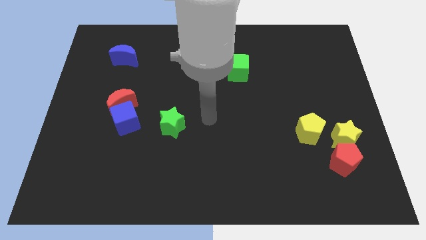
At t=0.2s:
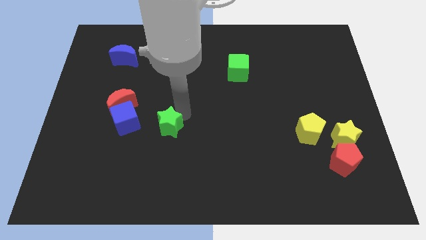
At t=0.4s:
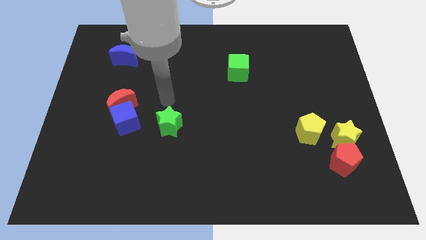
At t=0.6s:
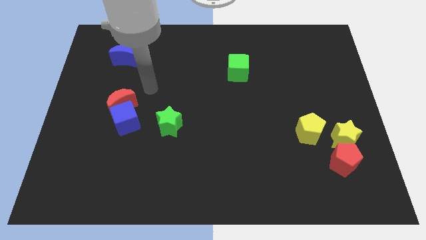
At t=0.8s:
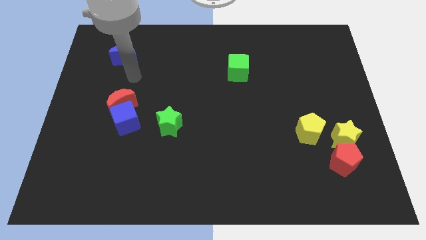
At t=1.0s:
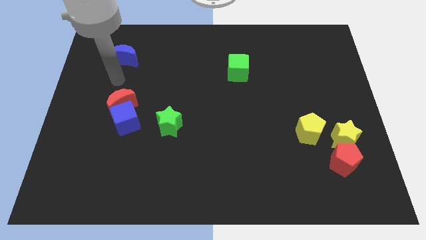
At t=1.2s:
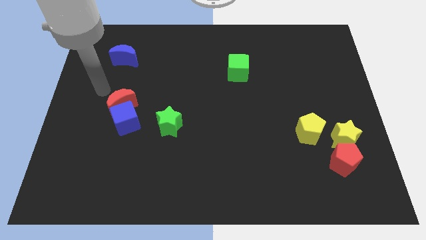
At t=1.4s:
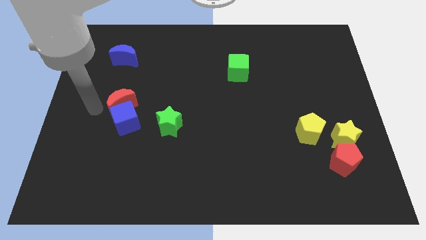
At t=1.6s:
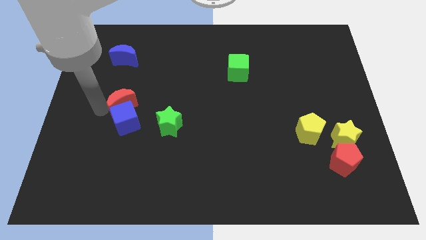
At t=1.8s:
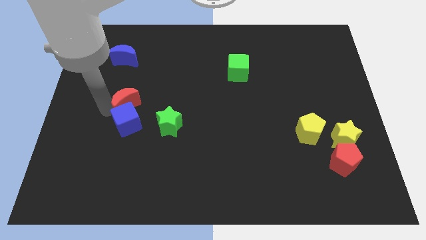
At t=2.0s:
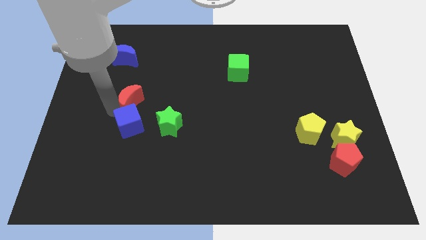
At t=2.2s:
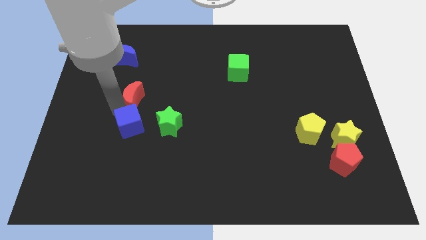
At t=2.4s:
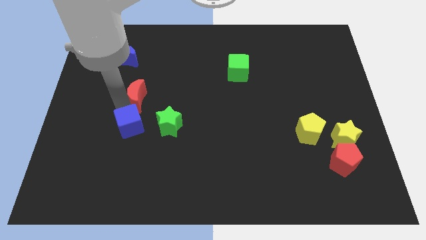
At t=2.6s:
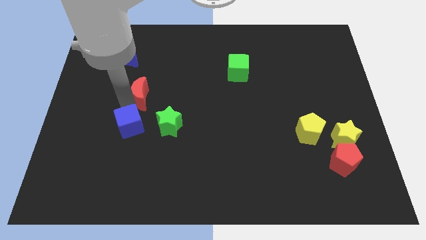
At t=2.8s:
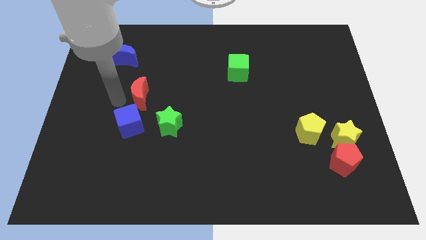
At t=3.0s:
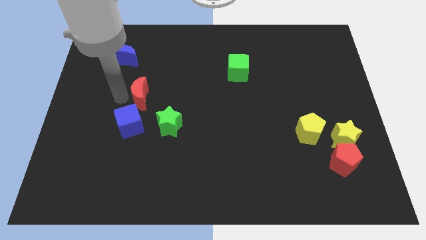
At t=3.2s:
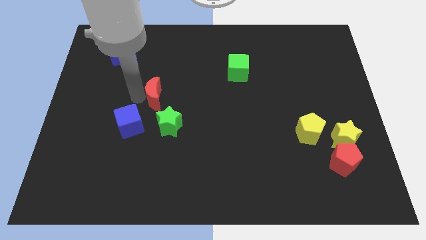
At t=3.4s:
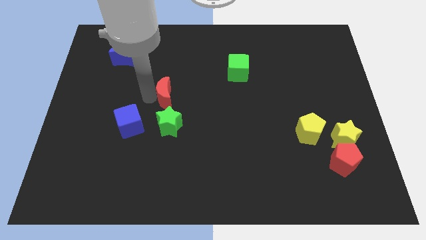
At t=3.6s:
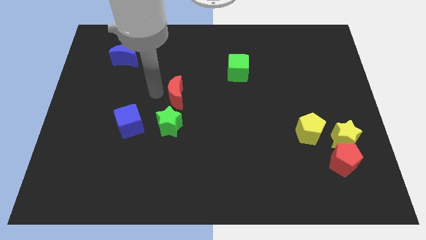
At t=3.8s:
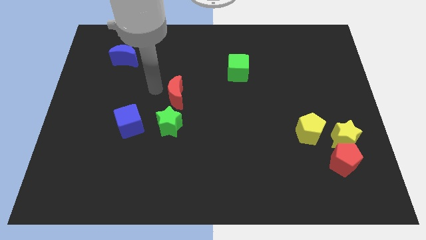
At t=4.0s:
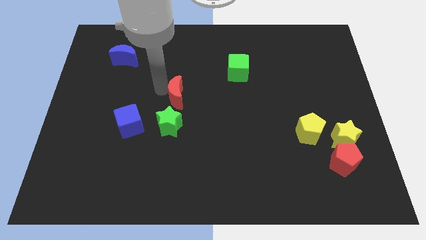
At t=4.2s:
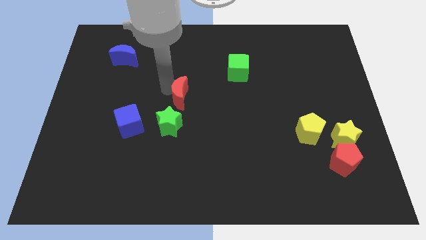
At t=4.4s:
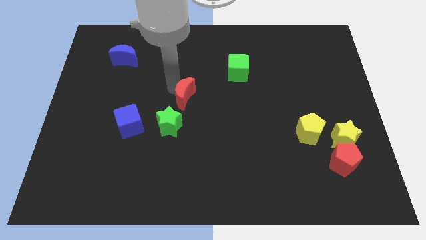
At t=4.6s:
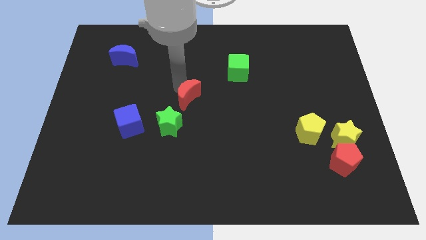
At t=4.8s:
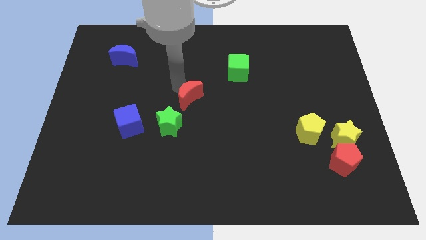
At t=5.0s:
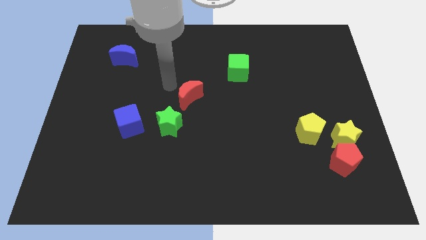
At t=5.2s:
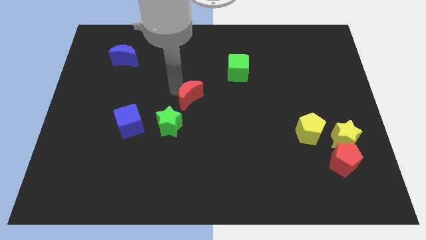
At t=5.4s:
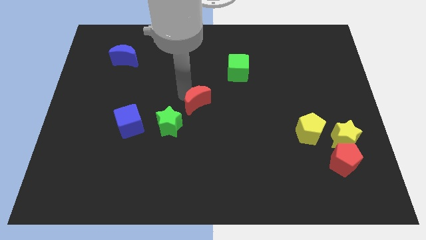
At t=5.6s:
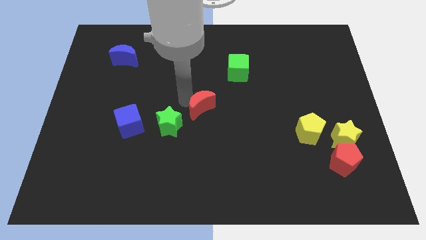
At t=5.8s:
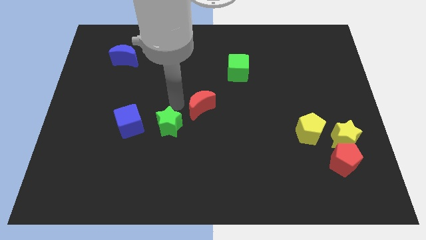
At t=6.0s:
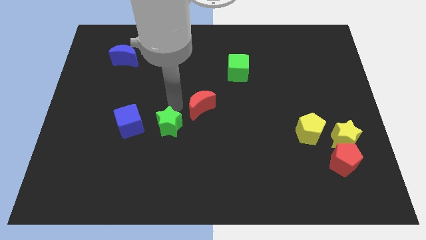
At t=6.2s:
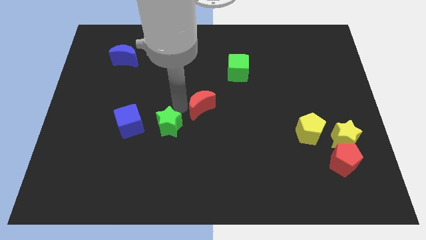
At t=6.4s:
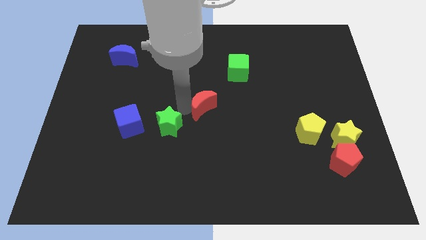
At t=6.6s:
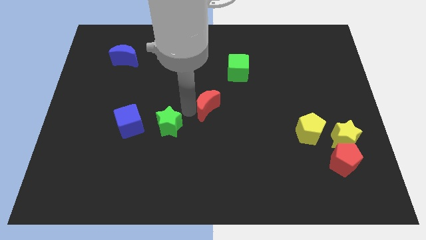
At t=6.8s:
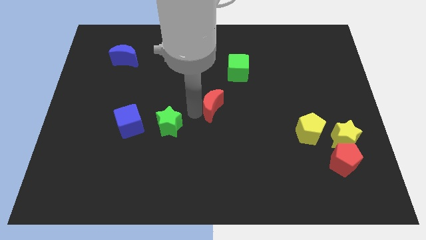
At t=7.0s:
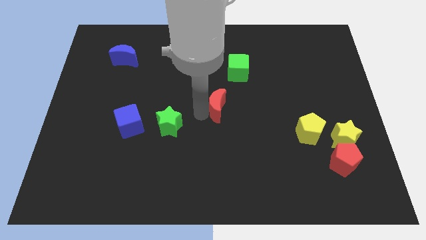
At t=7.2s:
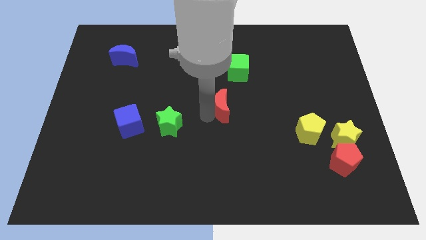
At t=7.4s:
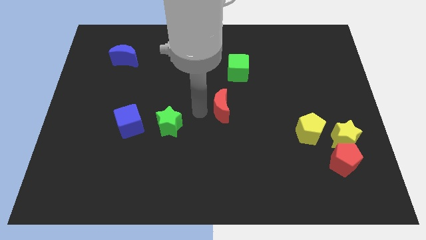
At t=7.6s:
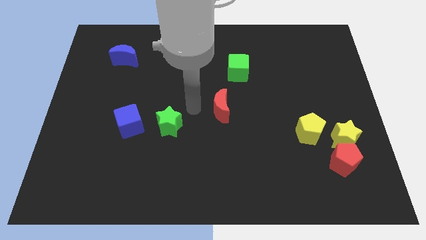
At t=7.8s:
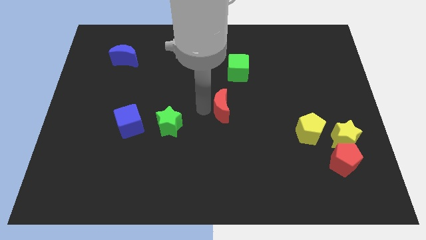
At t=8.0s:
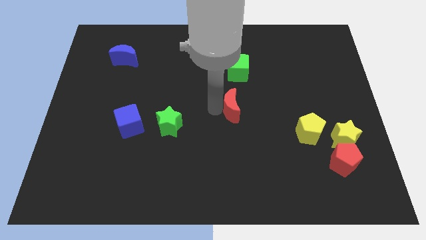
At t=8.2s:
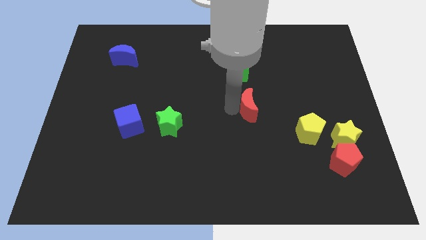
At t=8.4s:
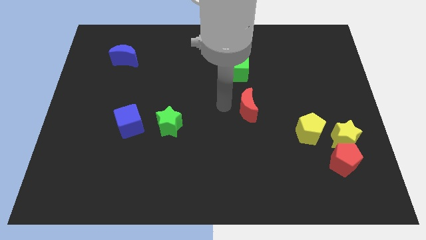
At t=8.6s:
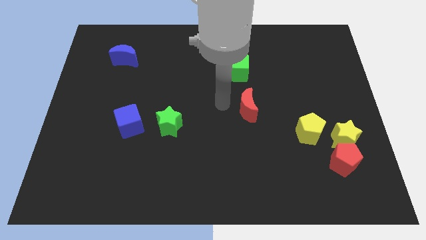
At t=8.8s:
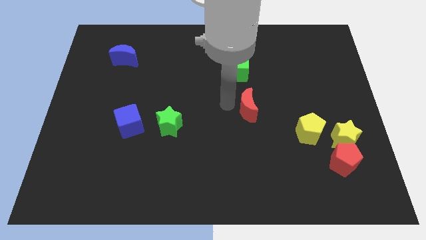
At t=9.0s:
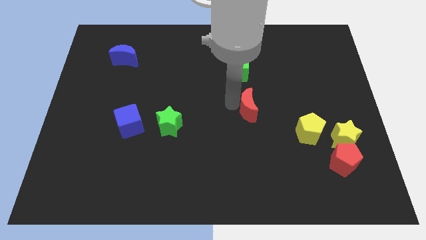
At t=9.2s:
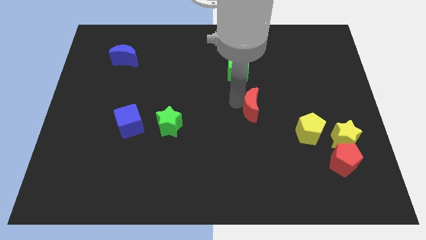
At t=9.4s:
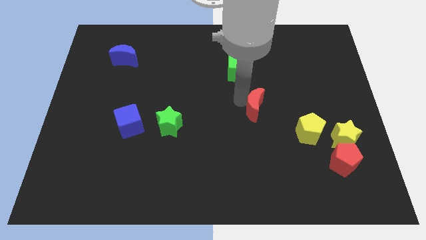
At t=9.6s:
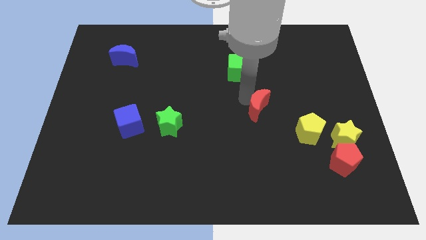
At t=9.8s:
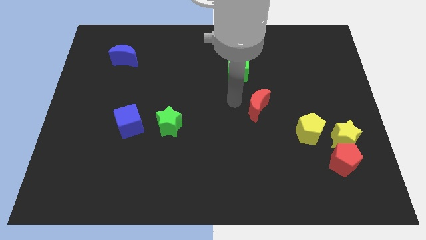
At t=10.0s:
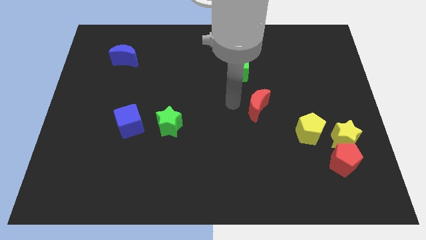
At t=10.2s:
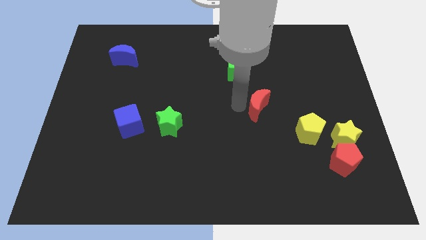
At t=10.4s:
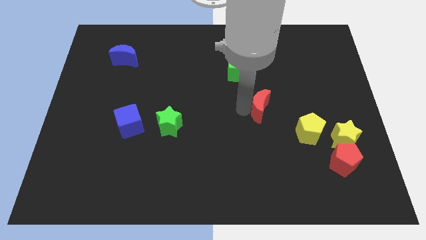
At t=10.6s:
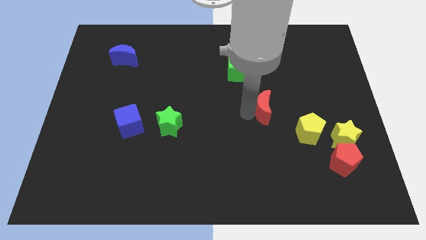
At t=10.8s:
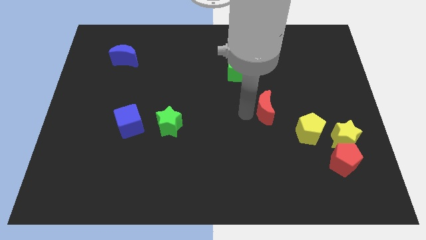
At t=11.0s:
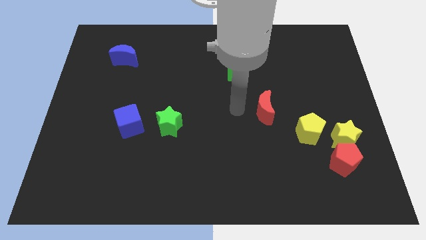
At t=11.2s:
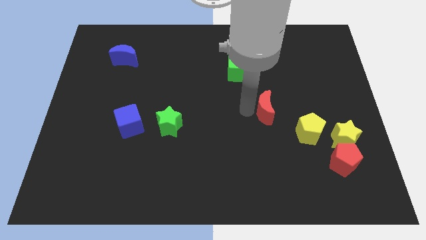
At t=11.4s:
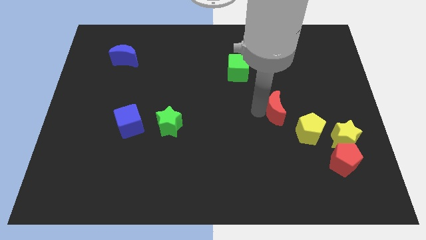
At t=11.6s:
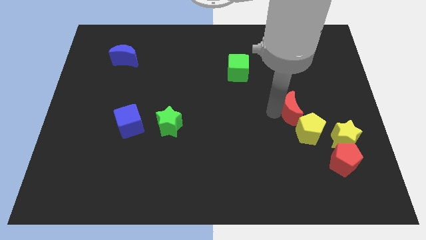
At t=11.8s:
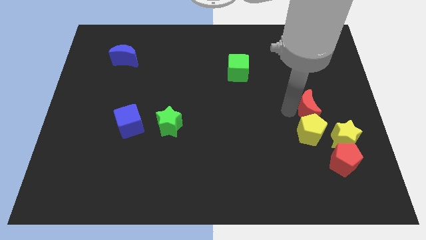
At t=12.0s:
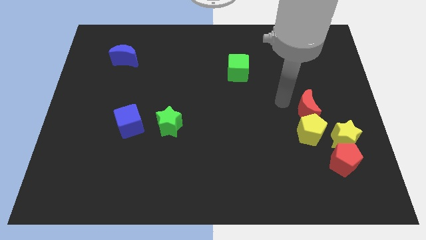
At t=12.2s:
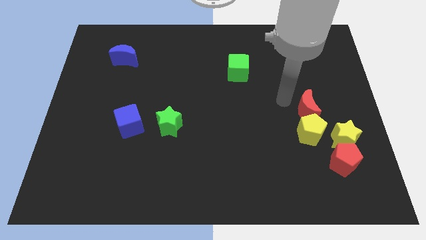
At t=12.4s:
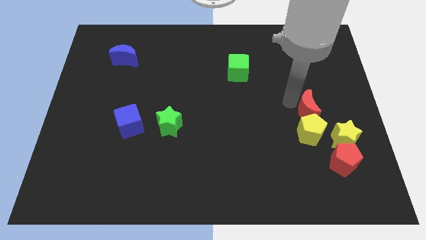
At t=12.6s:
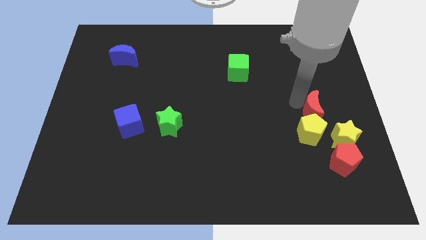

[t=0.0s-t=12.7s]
slide the red moon above the red pentagon

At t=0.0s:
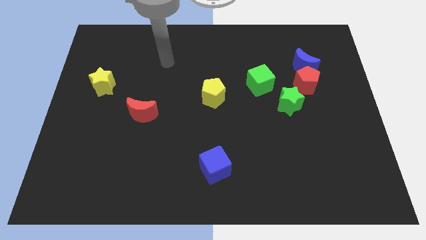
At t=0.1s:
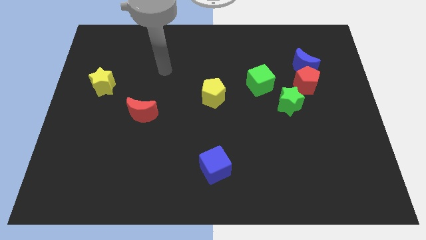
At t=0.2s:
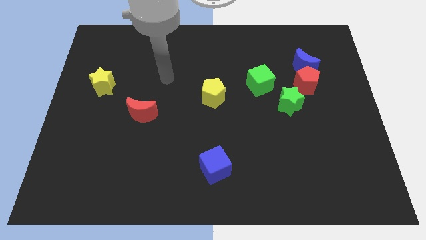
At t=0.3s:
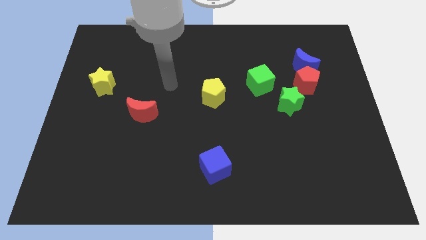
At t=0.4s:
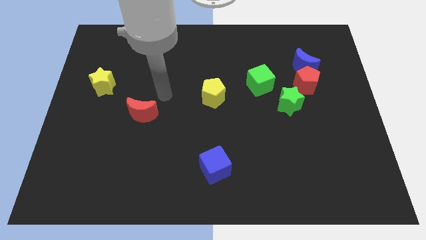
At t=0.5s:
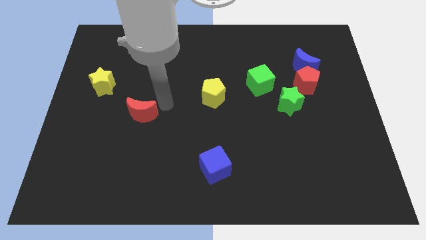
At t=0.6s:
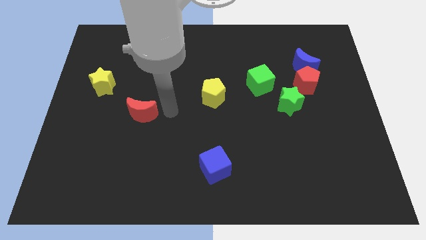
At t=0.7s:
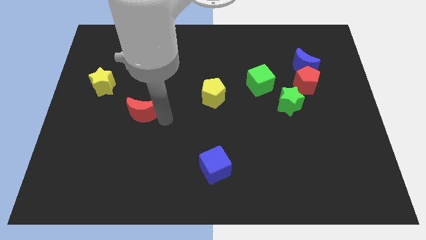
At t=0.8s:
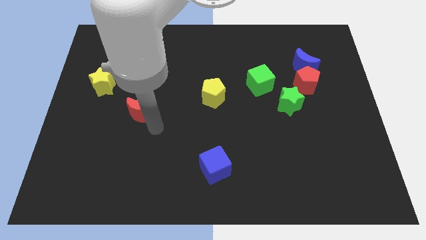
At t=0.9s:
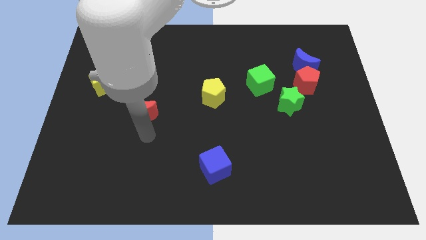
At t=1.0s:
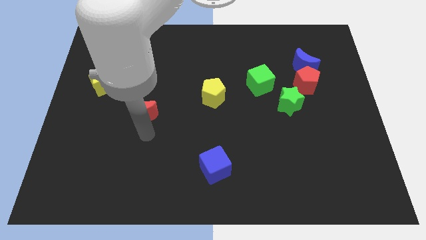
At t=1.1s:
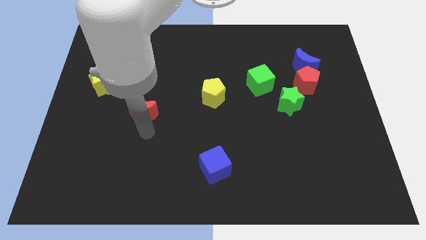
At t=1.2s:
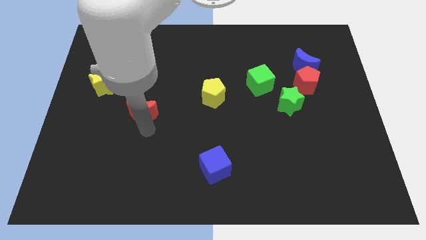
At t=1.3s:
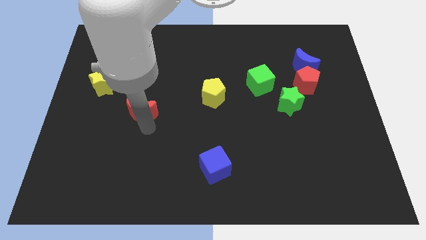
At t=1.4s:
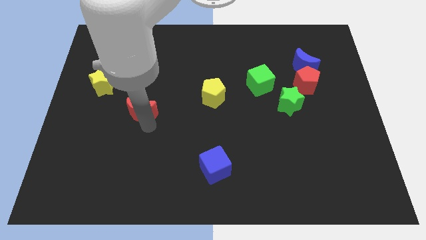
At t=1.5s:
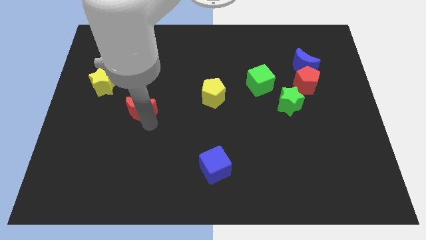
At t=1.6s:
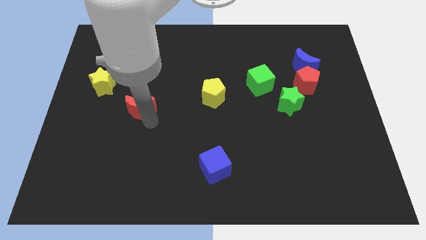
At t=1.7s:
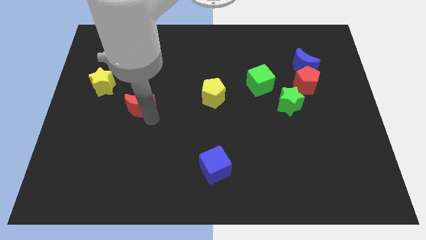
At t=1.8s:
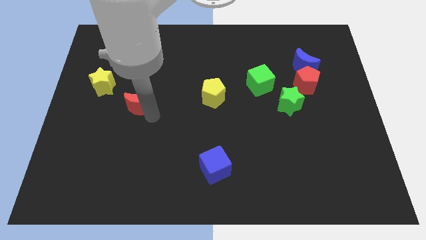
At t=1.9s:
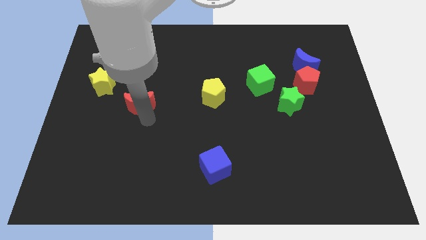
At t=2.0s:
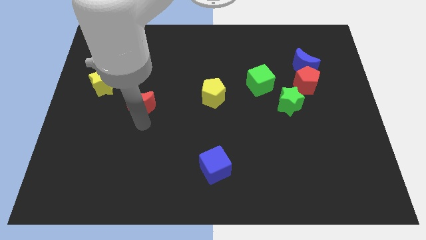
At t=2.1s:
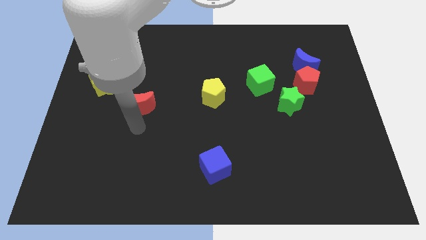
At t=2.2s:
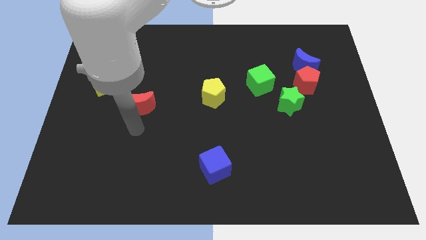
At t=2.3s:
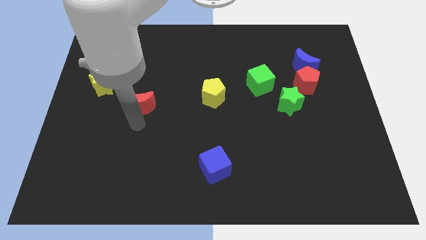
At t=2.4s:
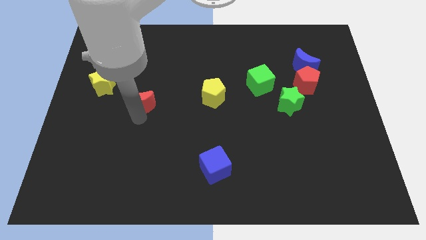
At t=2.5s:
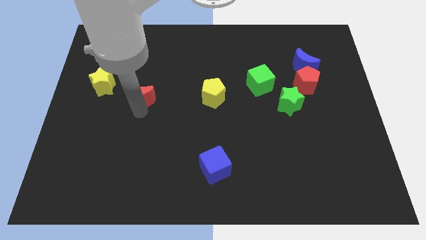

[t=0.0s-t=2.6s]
put the red moon just right of the yellow star
